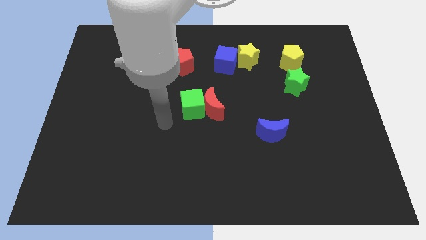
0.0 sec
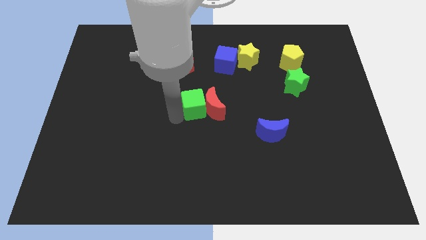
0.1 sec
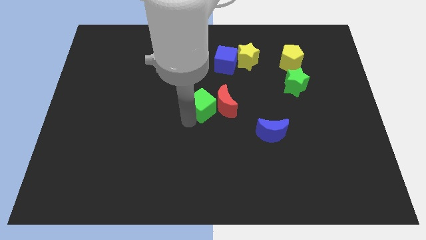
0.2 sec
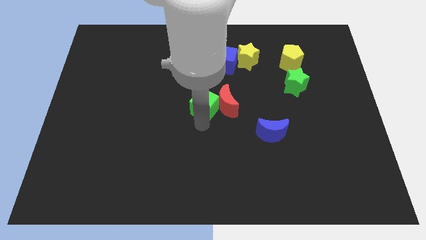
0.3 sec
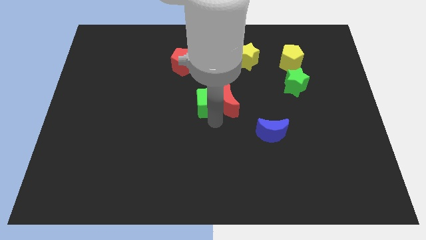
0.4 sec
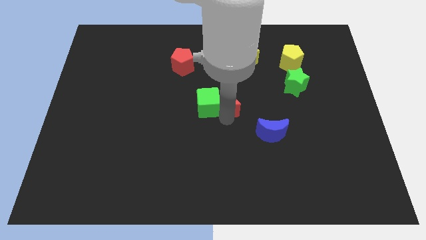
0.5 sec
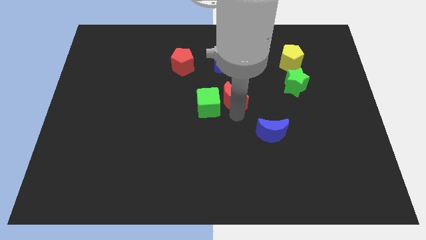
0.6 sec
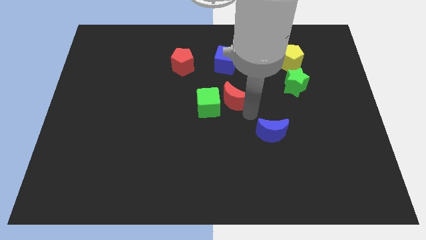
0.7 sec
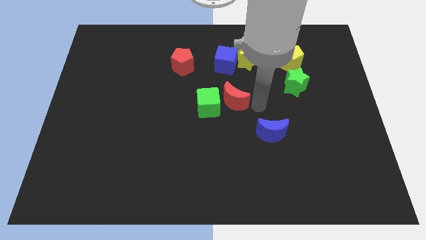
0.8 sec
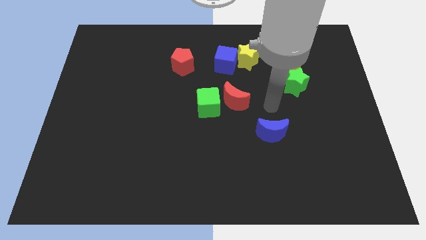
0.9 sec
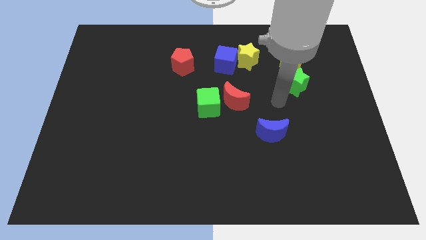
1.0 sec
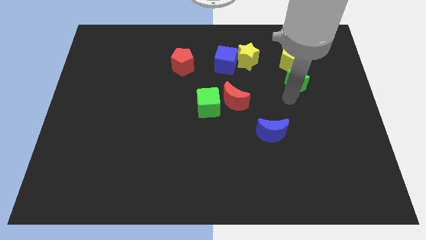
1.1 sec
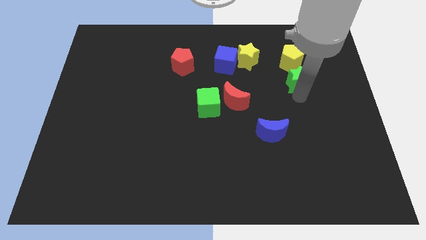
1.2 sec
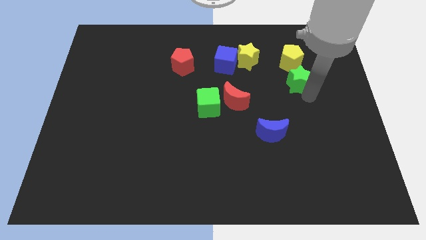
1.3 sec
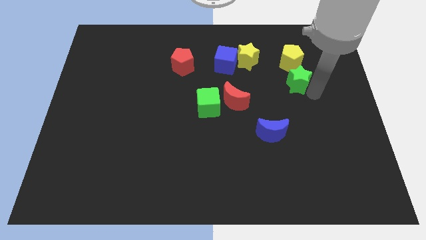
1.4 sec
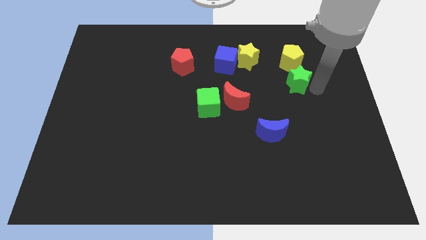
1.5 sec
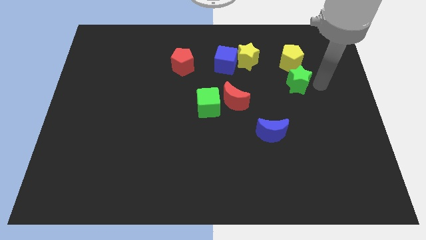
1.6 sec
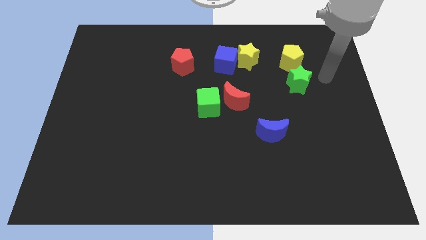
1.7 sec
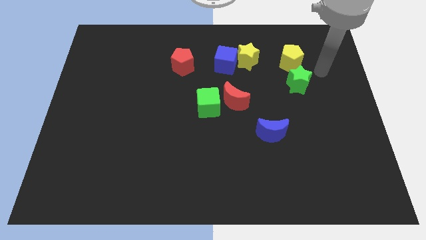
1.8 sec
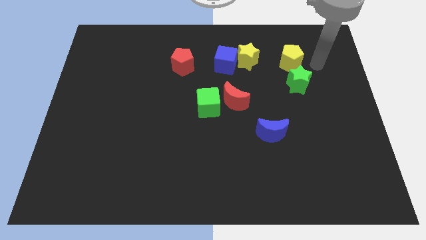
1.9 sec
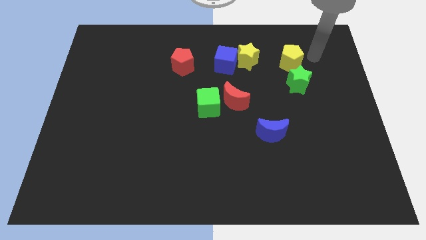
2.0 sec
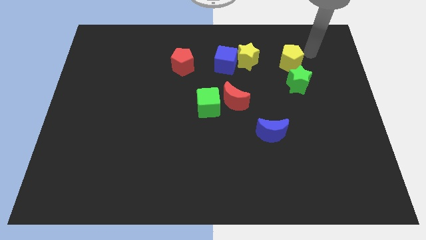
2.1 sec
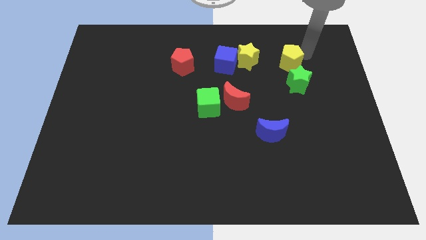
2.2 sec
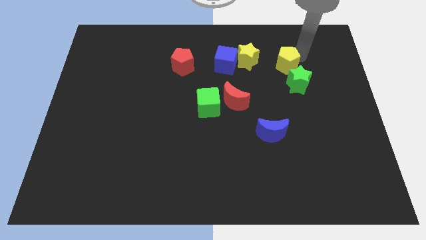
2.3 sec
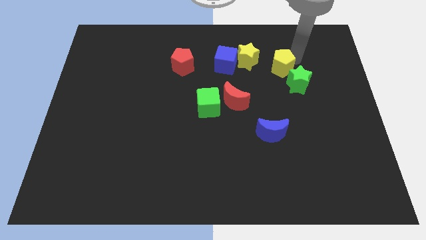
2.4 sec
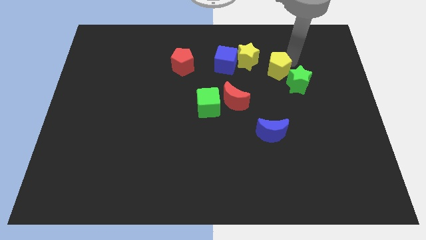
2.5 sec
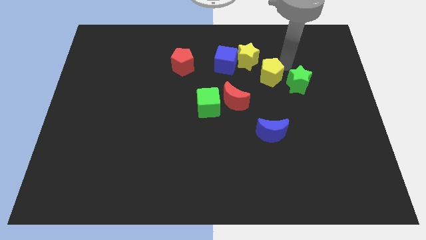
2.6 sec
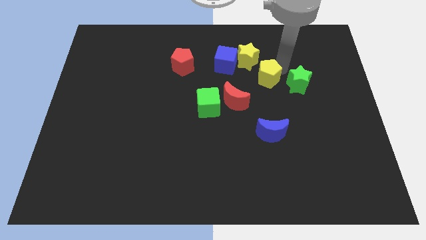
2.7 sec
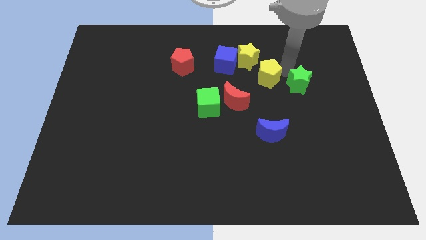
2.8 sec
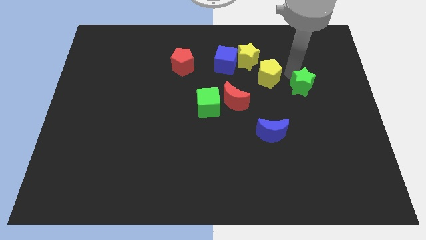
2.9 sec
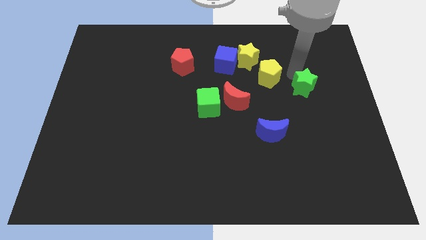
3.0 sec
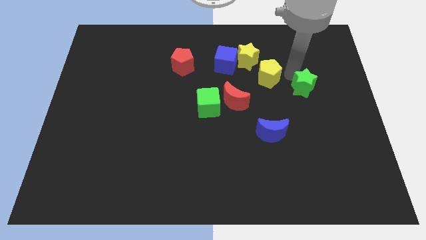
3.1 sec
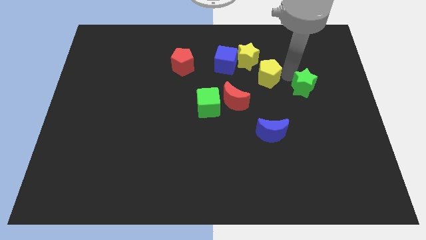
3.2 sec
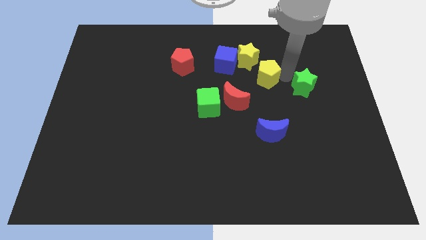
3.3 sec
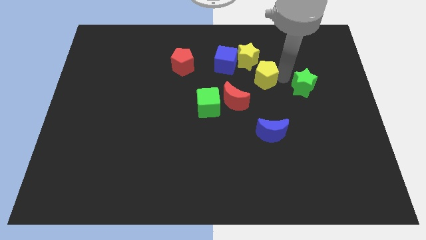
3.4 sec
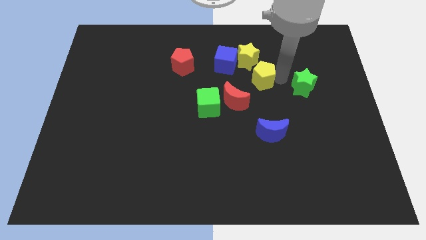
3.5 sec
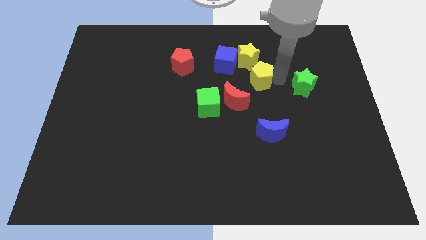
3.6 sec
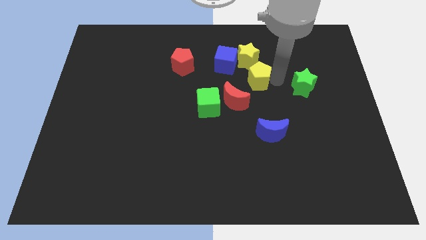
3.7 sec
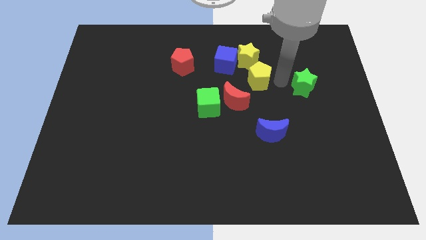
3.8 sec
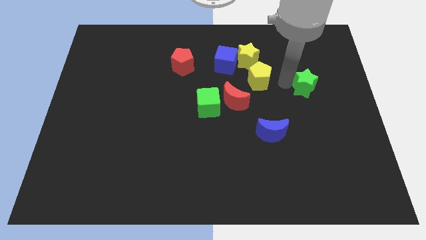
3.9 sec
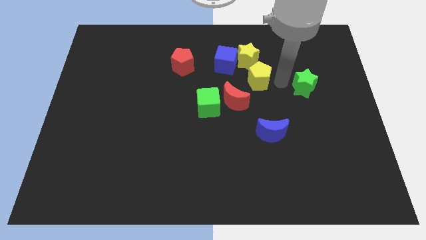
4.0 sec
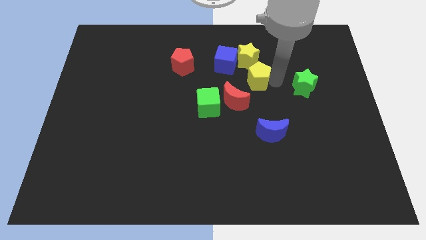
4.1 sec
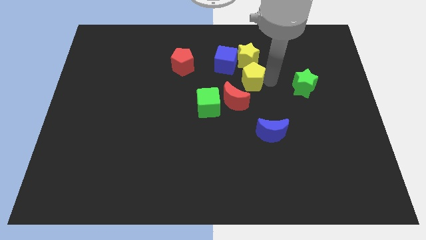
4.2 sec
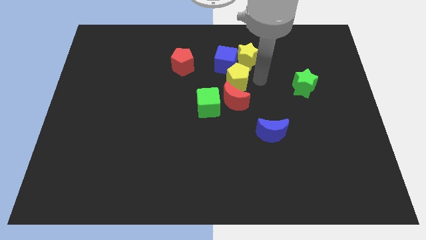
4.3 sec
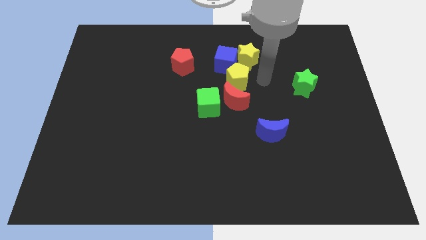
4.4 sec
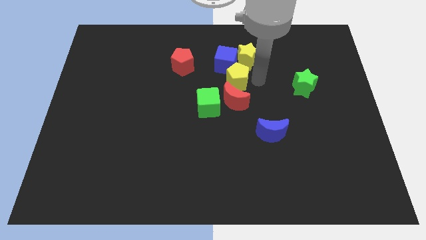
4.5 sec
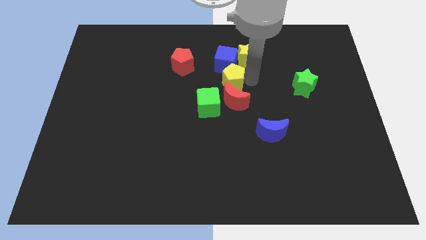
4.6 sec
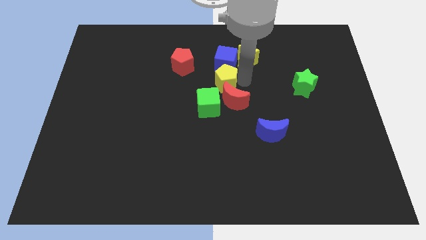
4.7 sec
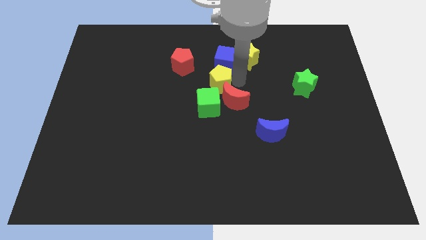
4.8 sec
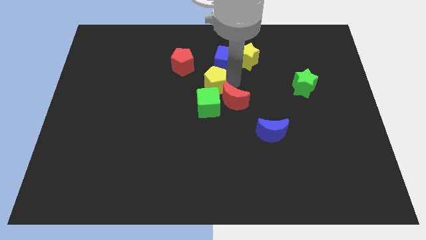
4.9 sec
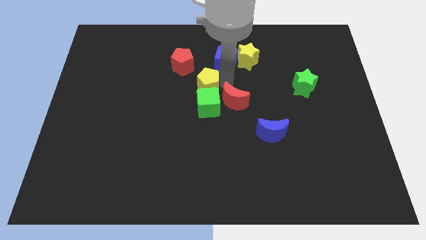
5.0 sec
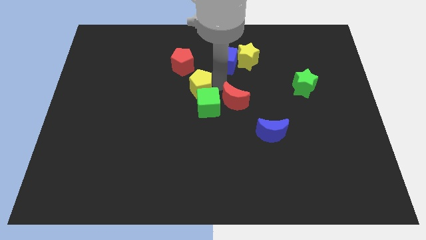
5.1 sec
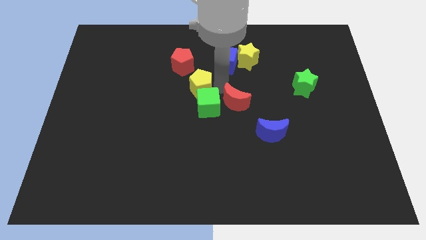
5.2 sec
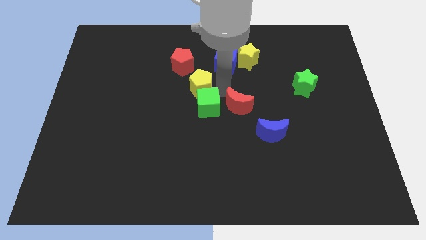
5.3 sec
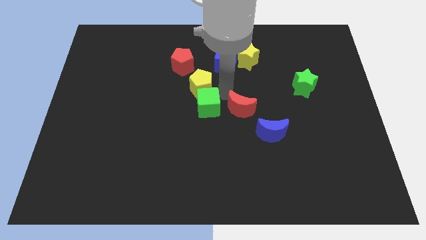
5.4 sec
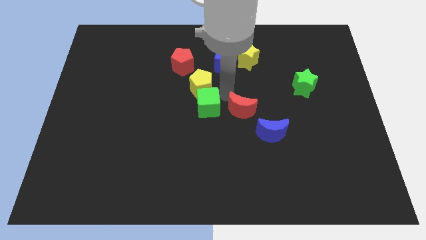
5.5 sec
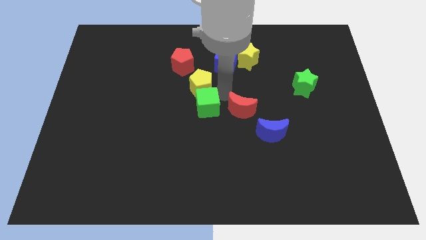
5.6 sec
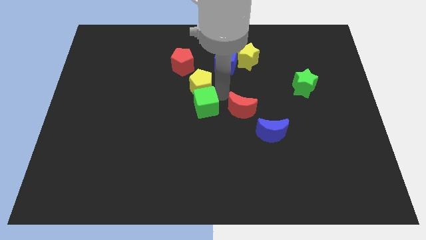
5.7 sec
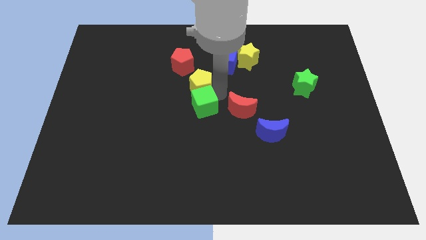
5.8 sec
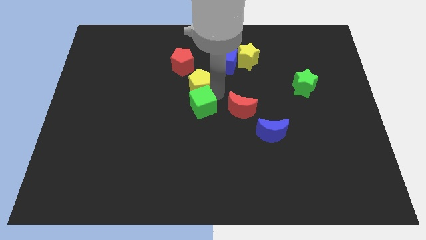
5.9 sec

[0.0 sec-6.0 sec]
move the yellow pentagon to the left

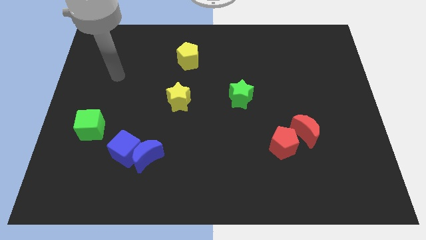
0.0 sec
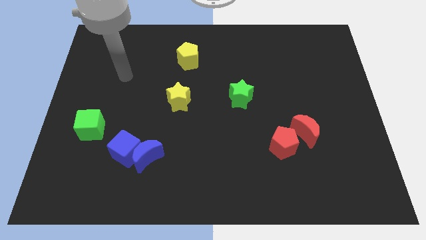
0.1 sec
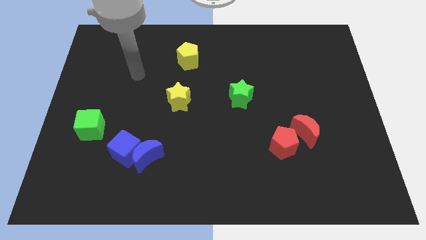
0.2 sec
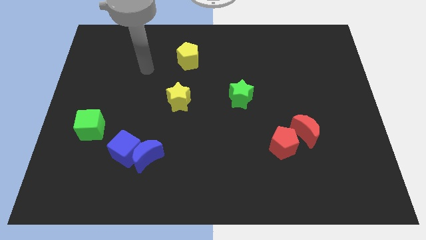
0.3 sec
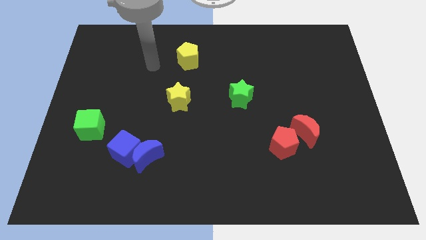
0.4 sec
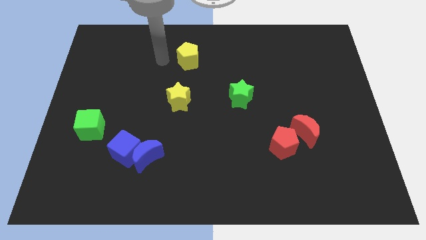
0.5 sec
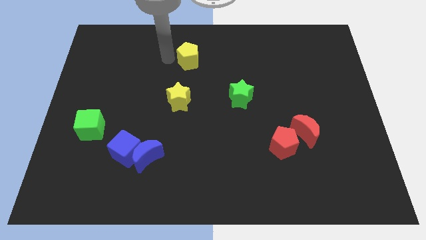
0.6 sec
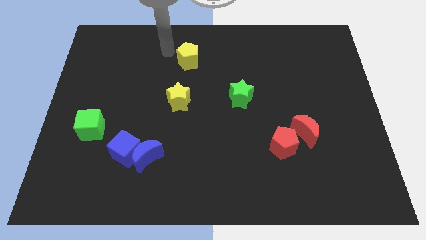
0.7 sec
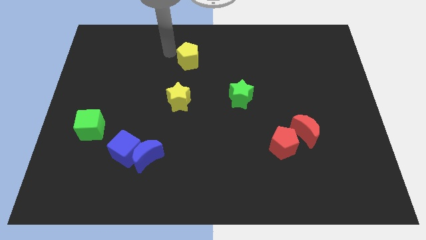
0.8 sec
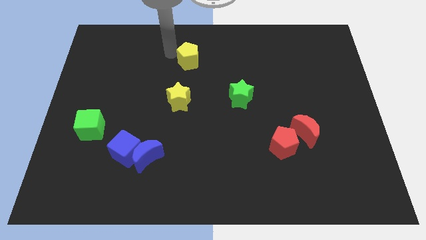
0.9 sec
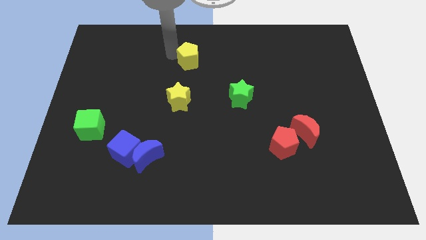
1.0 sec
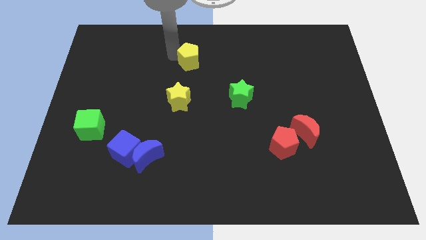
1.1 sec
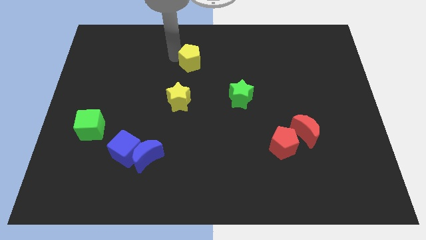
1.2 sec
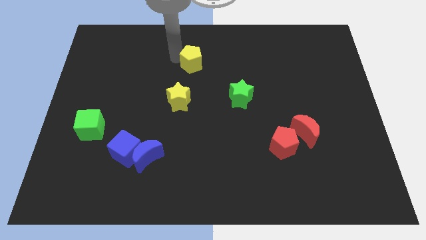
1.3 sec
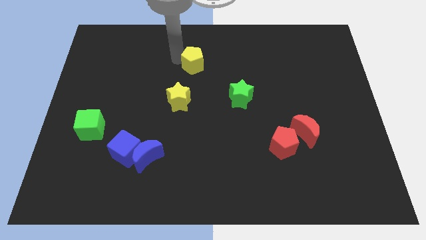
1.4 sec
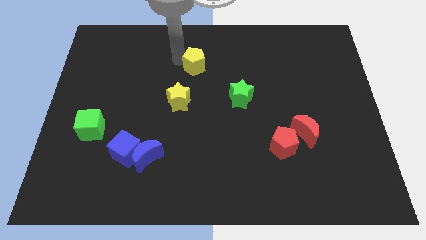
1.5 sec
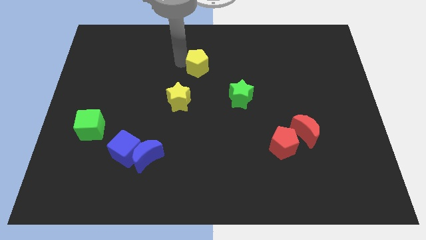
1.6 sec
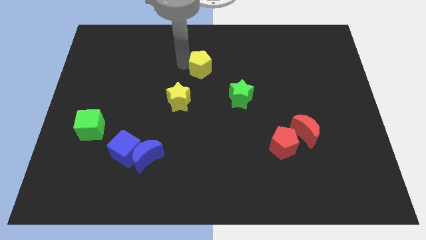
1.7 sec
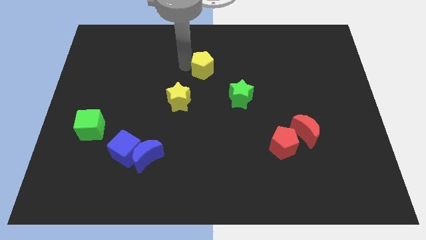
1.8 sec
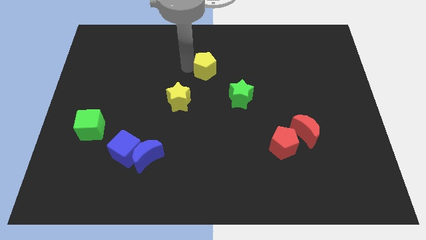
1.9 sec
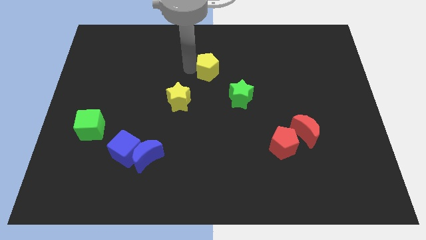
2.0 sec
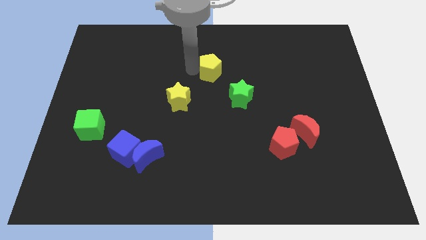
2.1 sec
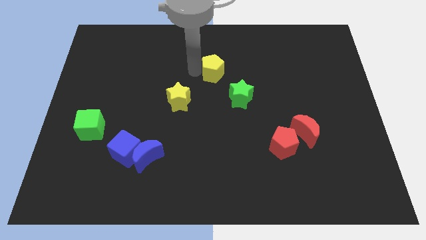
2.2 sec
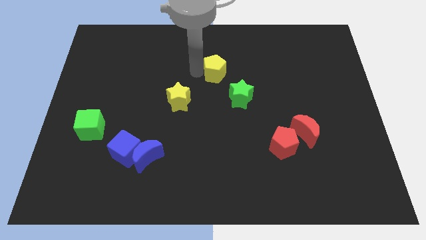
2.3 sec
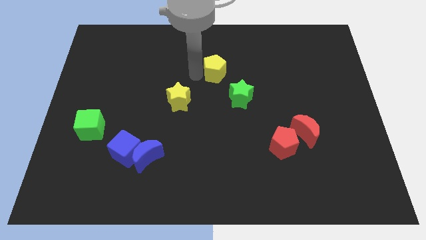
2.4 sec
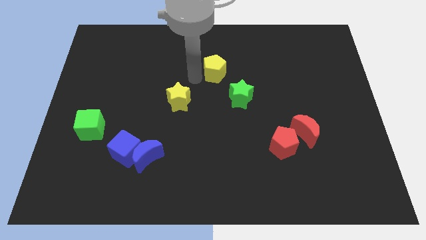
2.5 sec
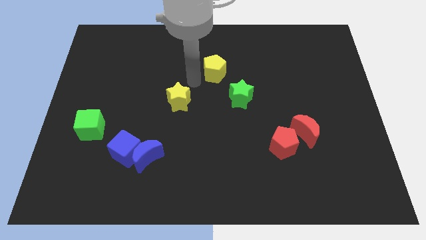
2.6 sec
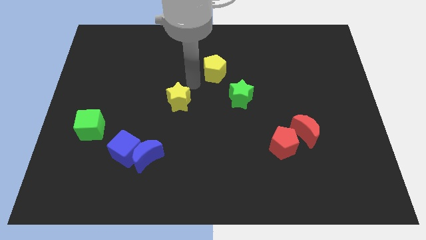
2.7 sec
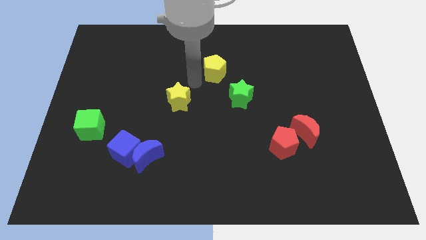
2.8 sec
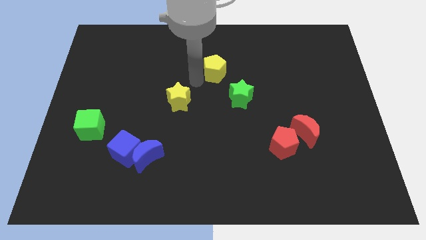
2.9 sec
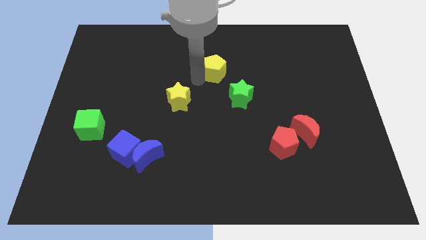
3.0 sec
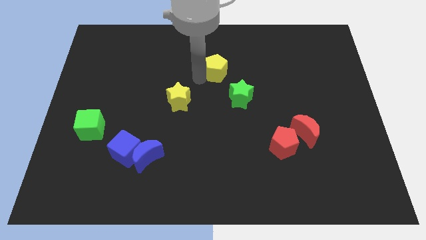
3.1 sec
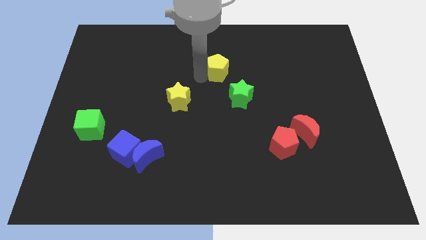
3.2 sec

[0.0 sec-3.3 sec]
slightly move the yellow pentagon to the right
